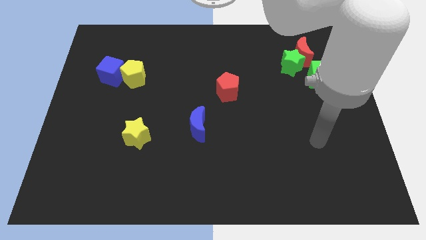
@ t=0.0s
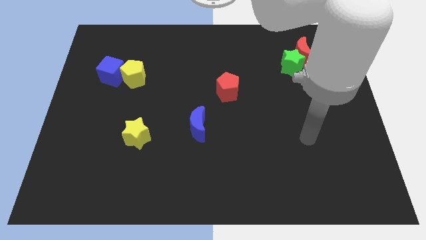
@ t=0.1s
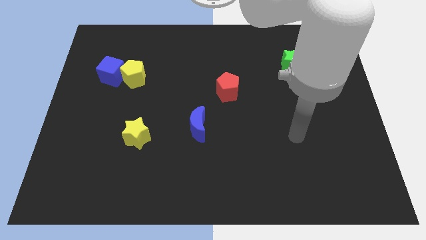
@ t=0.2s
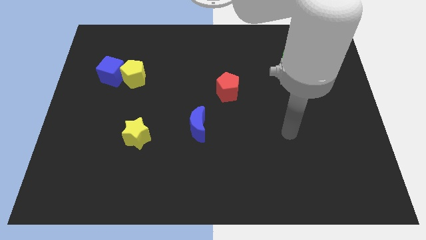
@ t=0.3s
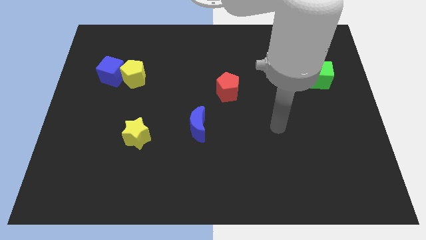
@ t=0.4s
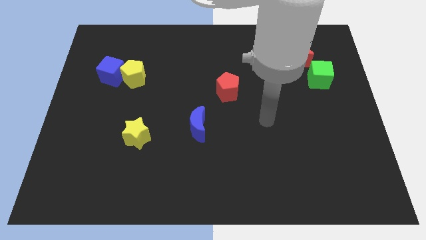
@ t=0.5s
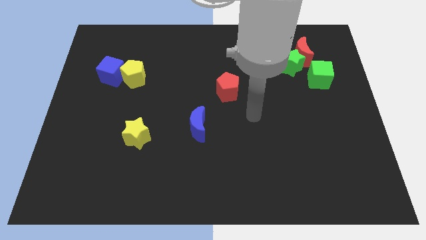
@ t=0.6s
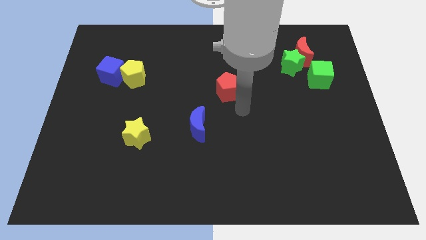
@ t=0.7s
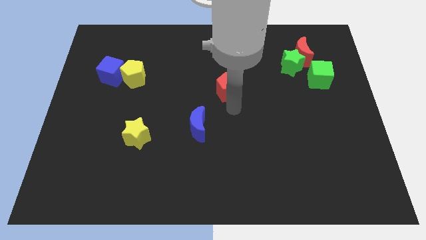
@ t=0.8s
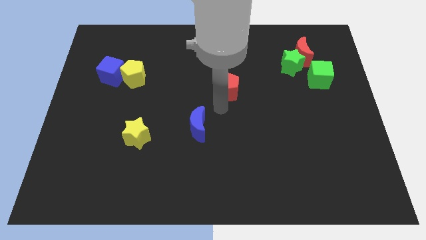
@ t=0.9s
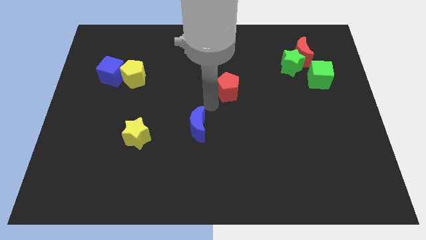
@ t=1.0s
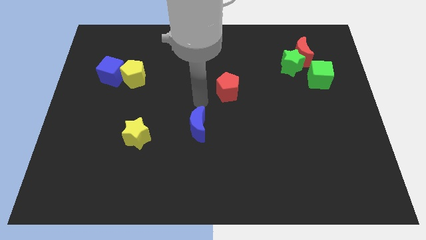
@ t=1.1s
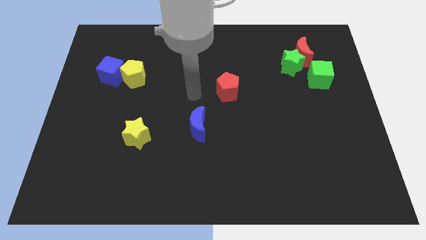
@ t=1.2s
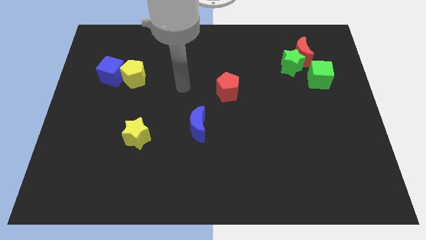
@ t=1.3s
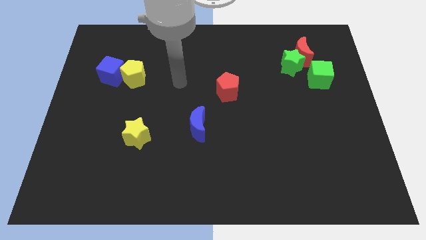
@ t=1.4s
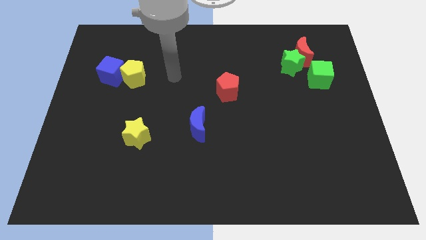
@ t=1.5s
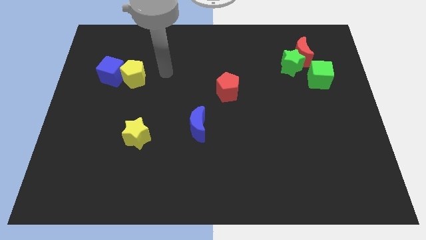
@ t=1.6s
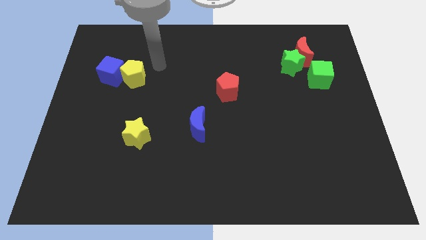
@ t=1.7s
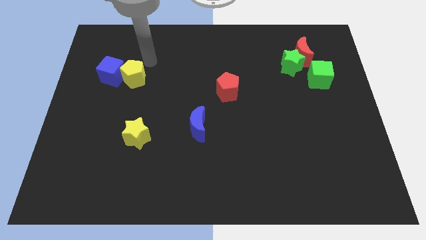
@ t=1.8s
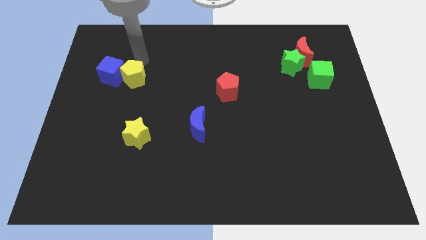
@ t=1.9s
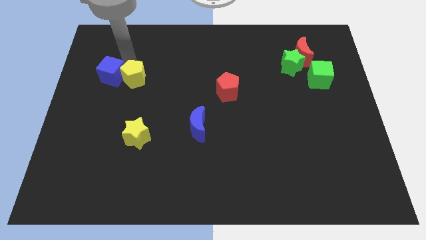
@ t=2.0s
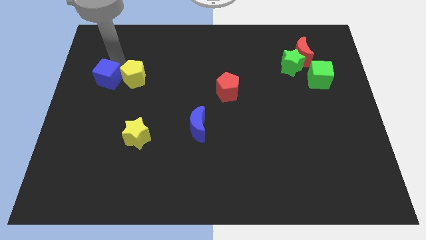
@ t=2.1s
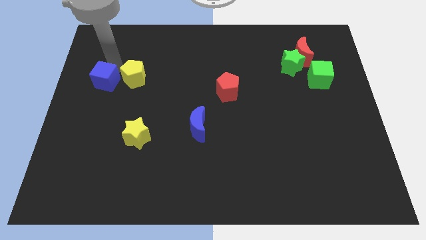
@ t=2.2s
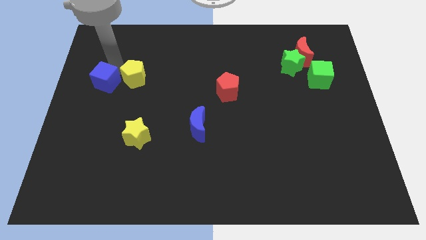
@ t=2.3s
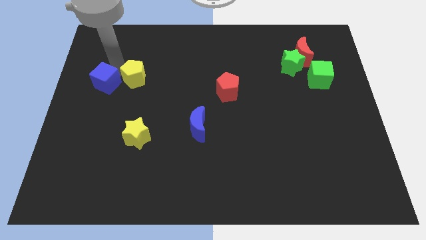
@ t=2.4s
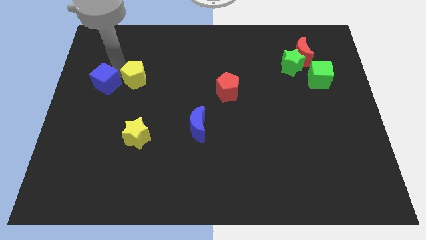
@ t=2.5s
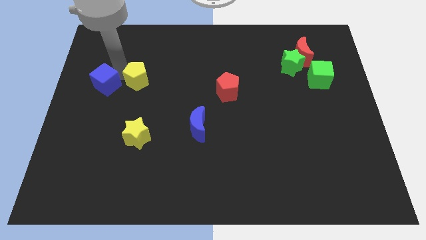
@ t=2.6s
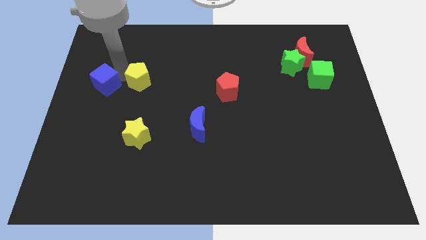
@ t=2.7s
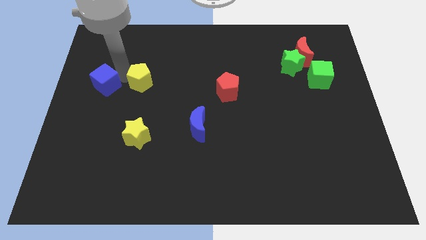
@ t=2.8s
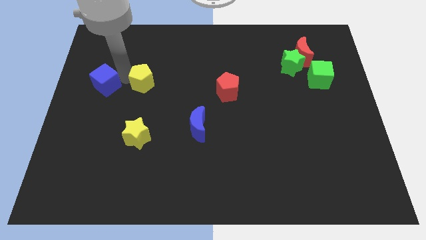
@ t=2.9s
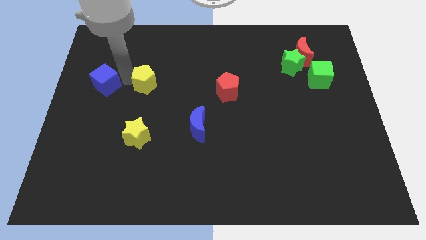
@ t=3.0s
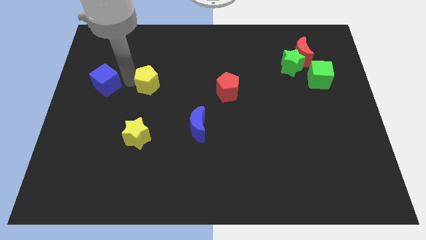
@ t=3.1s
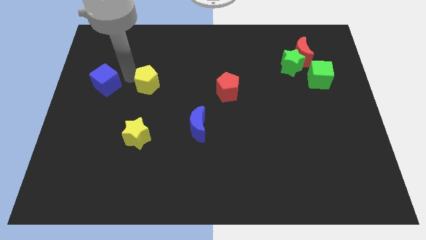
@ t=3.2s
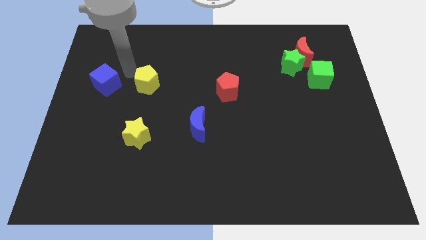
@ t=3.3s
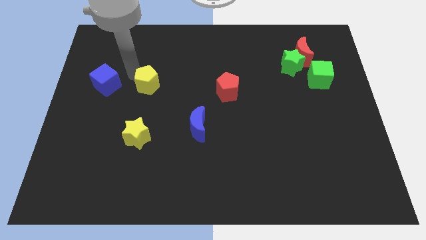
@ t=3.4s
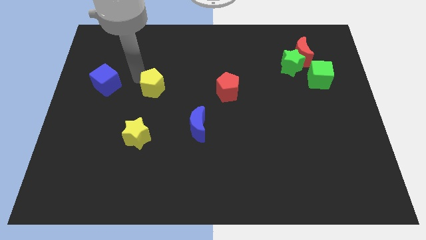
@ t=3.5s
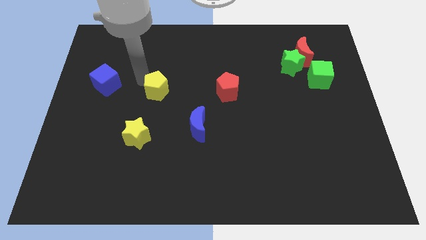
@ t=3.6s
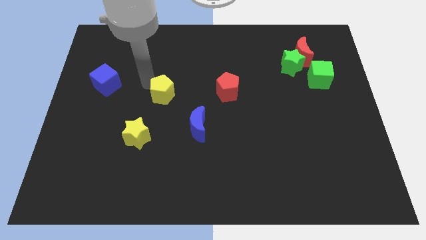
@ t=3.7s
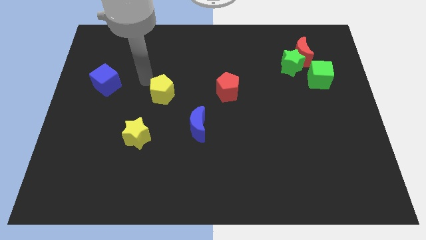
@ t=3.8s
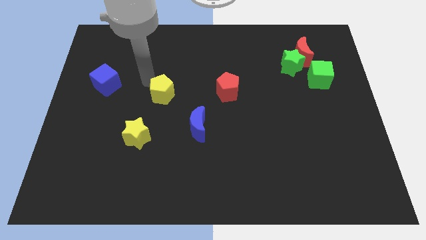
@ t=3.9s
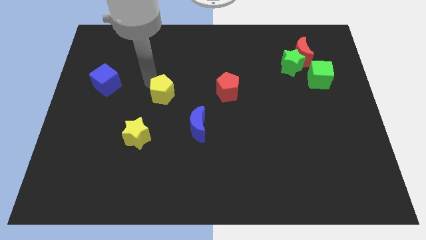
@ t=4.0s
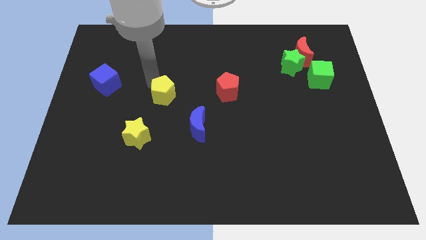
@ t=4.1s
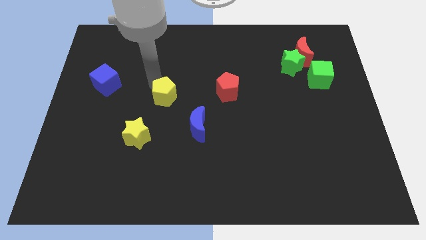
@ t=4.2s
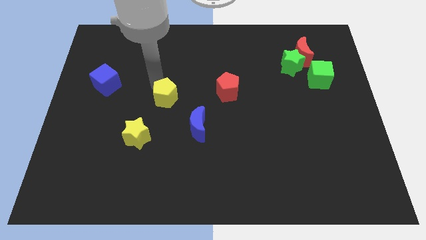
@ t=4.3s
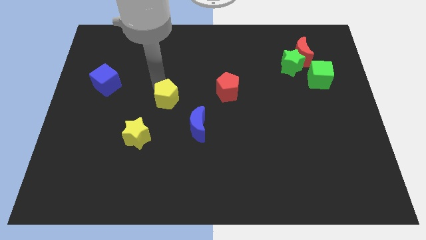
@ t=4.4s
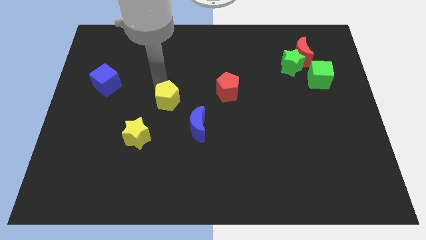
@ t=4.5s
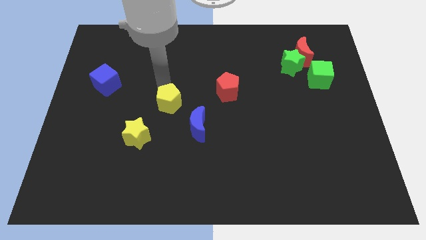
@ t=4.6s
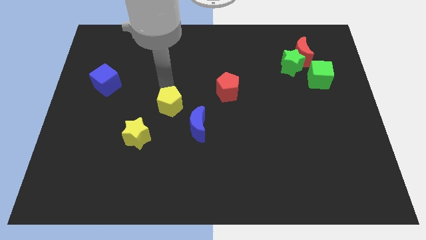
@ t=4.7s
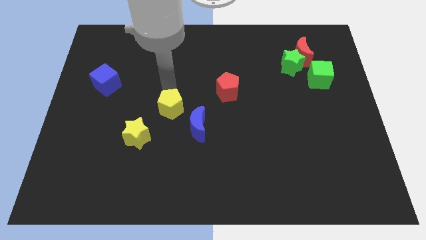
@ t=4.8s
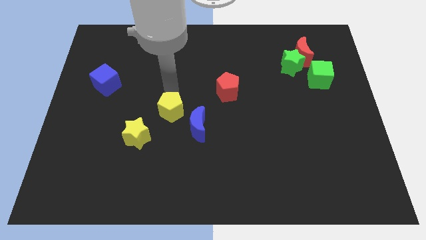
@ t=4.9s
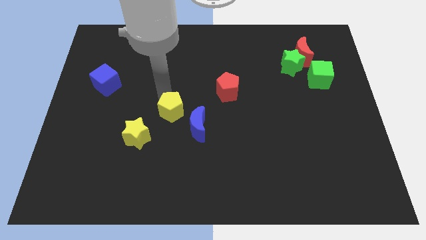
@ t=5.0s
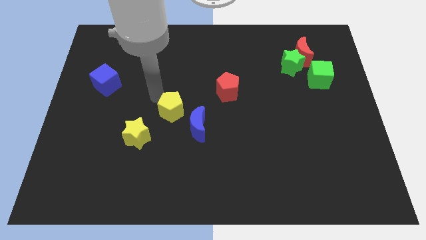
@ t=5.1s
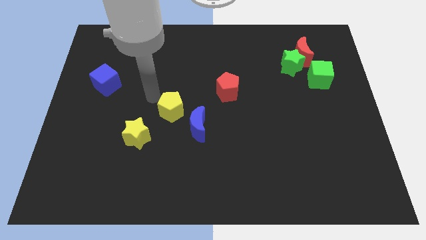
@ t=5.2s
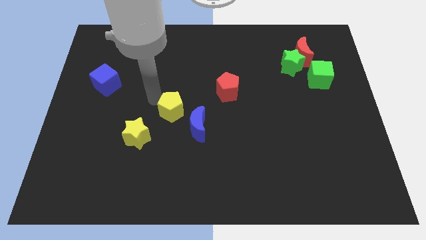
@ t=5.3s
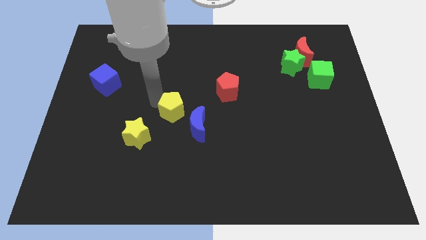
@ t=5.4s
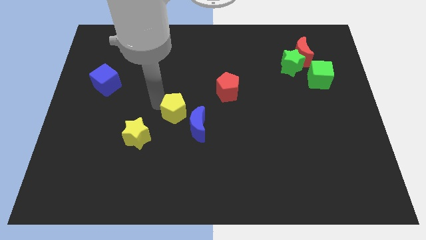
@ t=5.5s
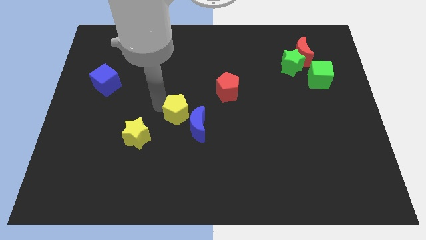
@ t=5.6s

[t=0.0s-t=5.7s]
slide the yellow pentagon close to the blue moon
